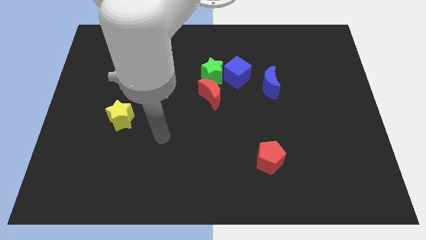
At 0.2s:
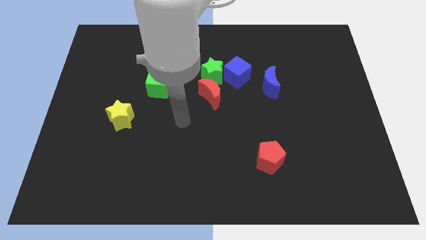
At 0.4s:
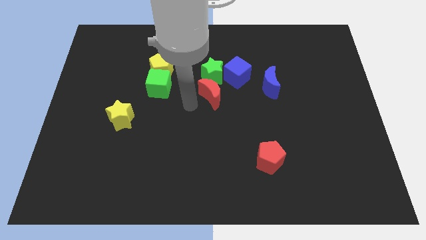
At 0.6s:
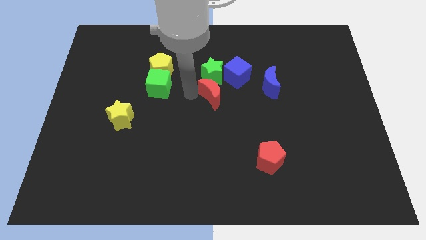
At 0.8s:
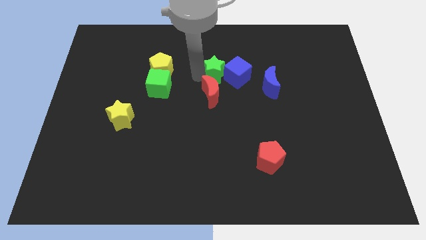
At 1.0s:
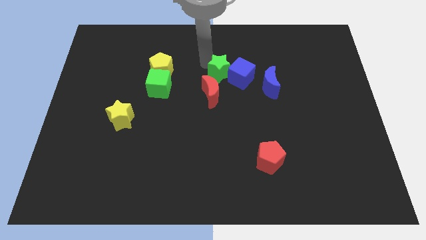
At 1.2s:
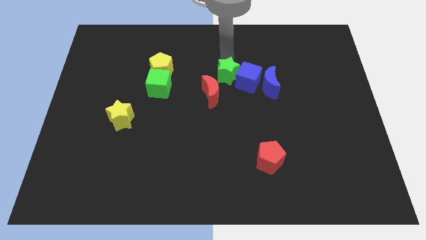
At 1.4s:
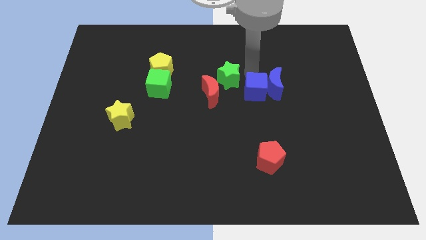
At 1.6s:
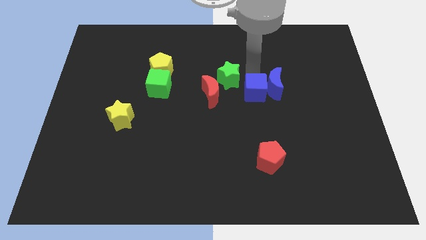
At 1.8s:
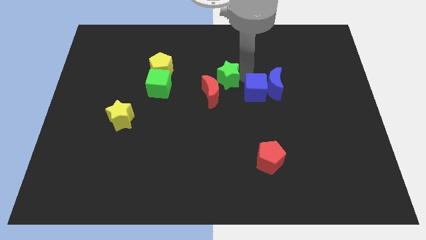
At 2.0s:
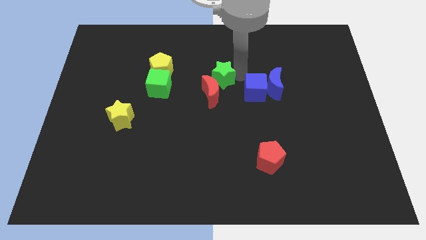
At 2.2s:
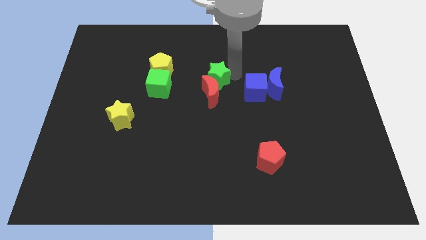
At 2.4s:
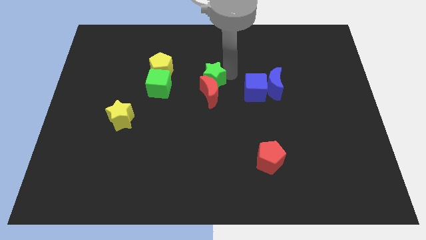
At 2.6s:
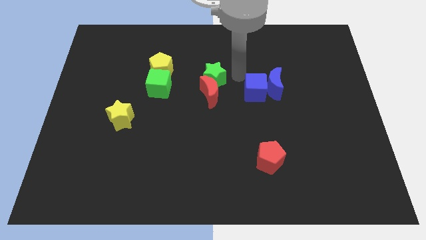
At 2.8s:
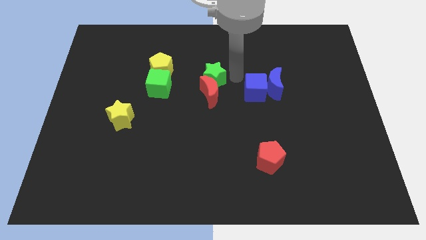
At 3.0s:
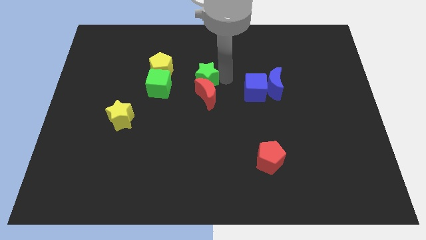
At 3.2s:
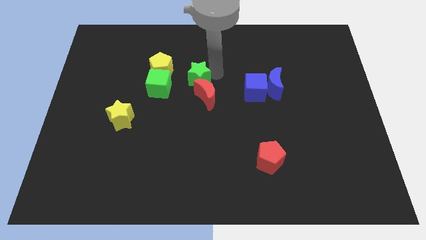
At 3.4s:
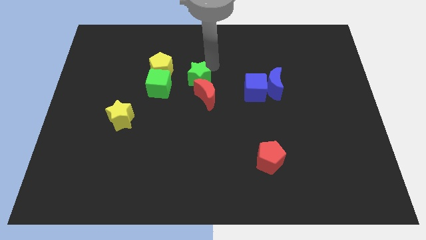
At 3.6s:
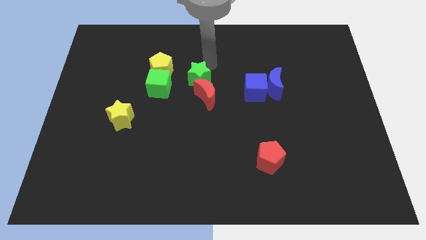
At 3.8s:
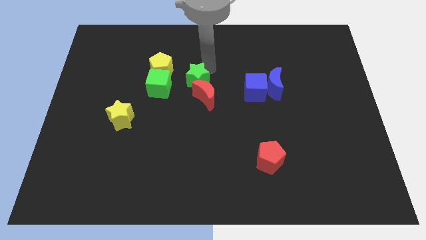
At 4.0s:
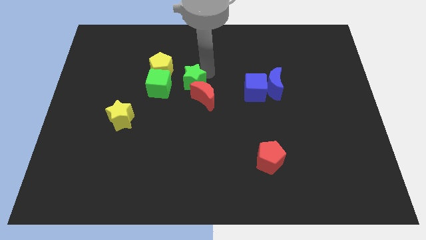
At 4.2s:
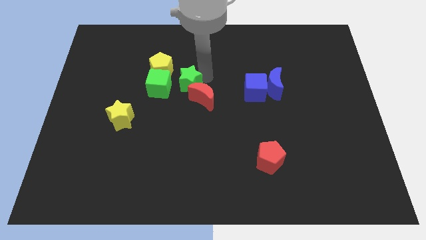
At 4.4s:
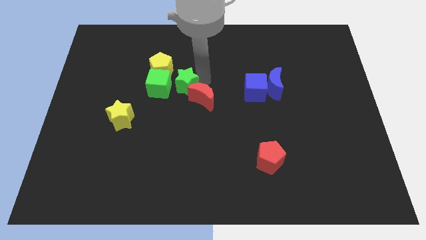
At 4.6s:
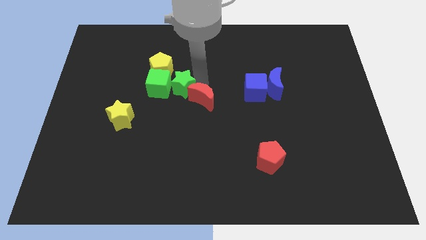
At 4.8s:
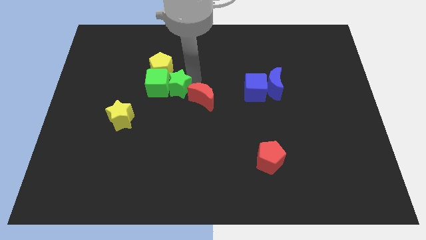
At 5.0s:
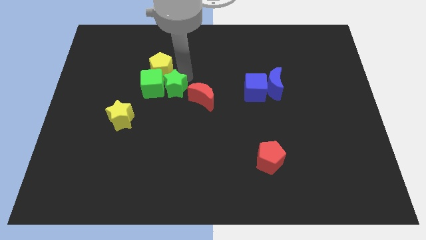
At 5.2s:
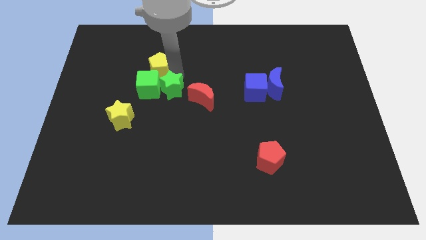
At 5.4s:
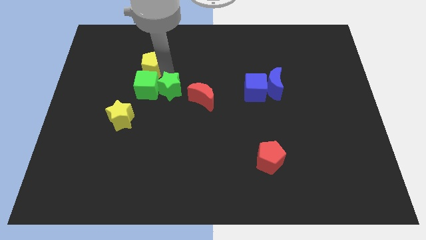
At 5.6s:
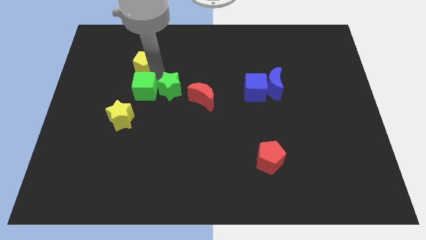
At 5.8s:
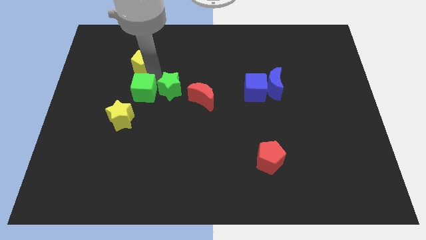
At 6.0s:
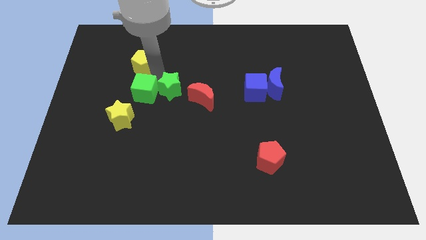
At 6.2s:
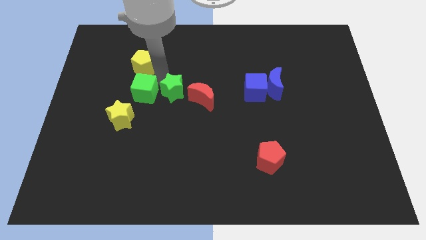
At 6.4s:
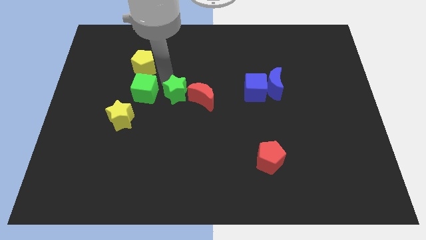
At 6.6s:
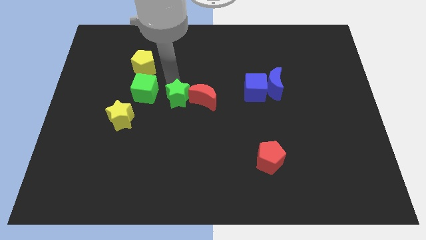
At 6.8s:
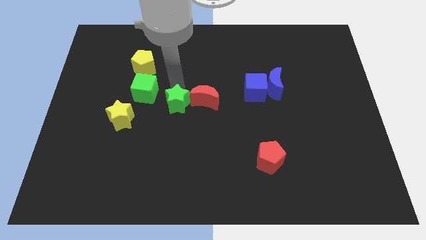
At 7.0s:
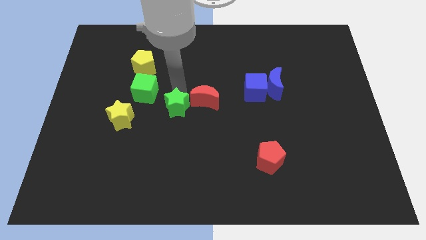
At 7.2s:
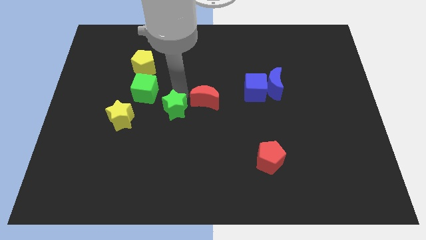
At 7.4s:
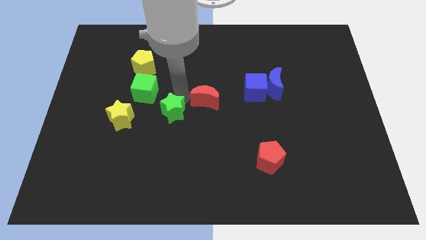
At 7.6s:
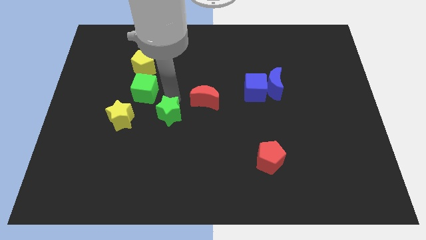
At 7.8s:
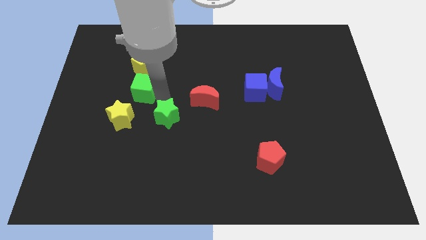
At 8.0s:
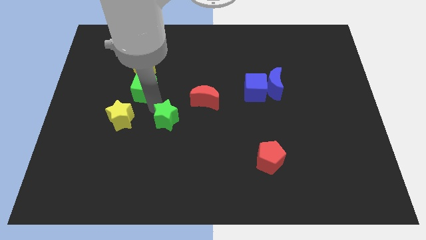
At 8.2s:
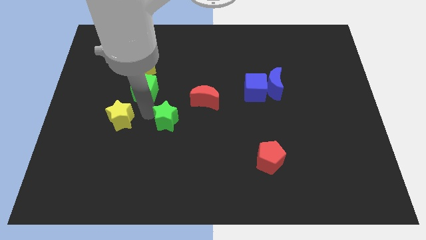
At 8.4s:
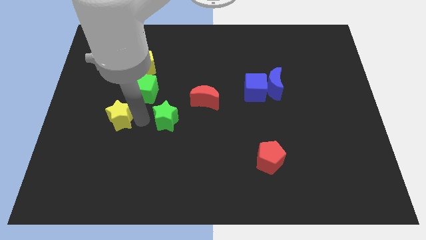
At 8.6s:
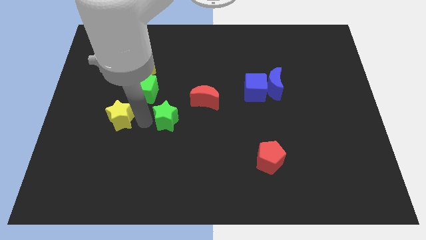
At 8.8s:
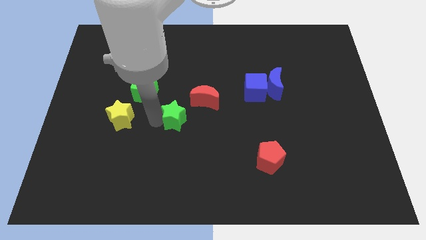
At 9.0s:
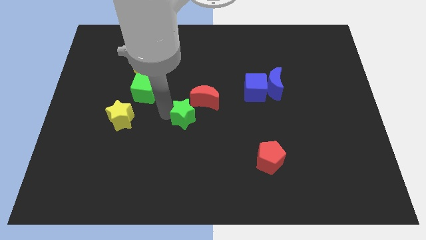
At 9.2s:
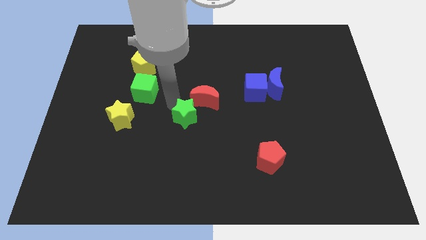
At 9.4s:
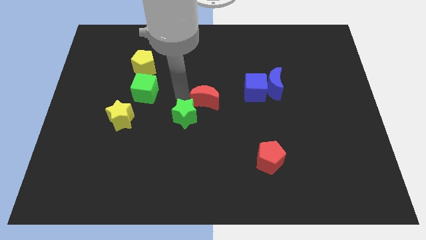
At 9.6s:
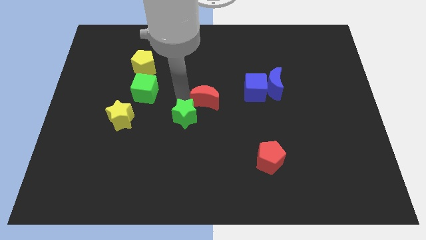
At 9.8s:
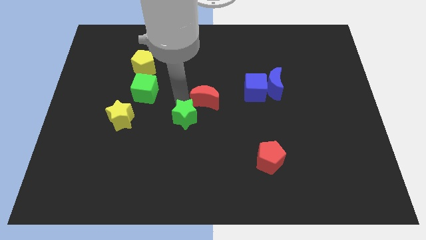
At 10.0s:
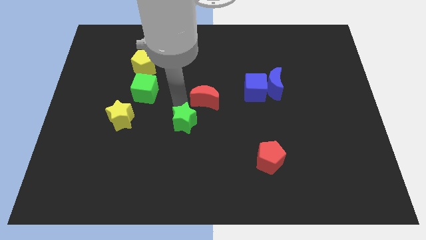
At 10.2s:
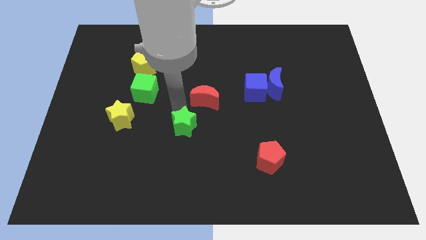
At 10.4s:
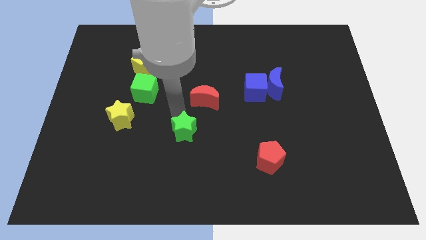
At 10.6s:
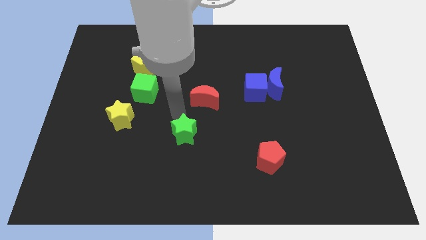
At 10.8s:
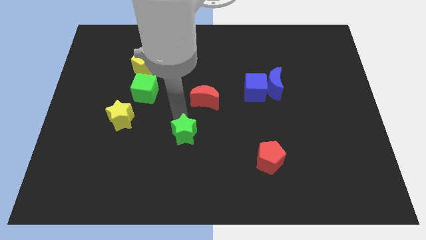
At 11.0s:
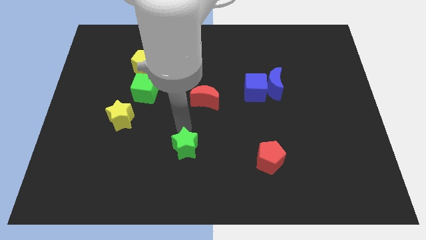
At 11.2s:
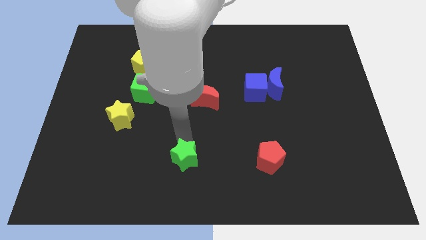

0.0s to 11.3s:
push the green star to the bottom

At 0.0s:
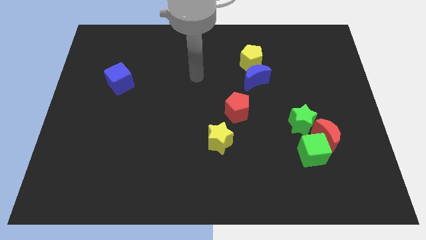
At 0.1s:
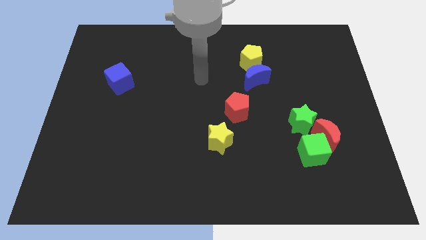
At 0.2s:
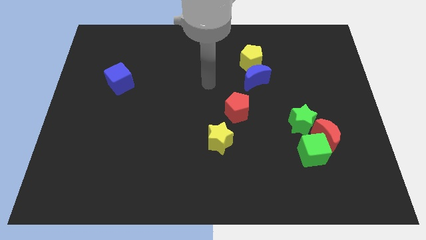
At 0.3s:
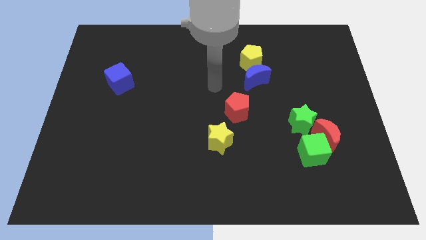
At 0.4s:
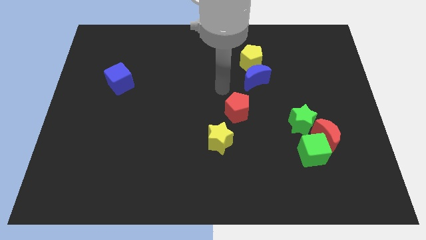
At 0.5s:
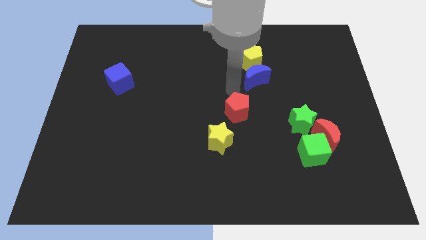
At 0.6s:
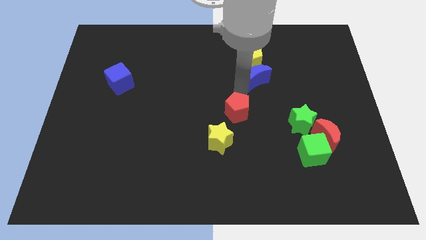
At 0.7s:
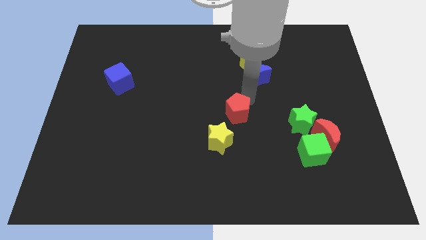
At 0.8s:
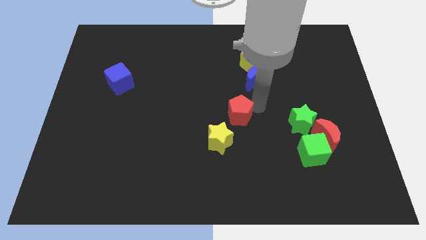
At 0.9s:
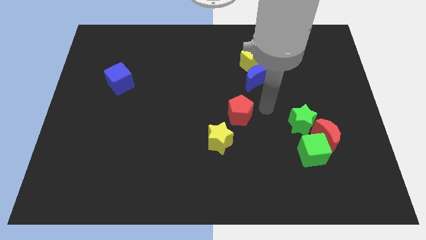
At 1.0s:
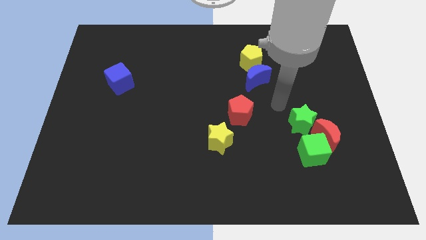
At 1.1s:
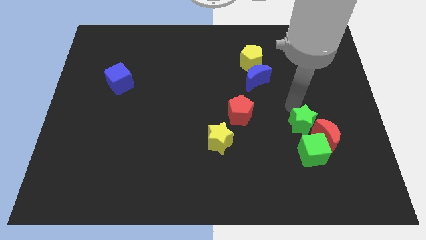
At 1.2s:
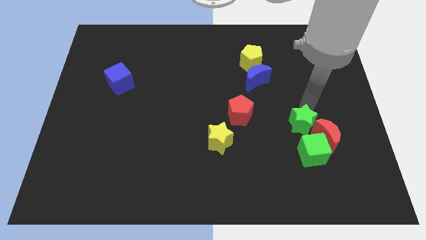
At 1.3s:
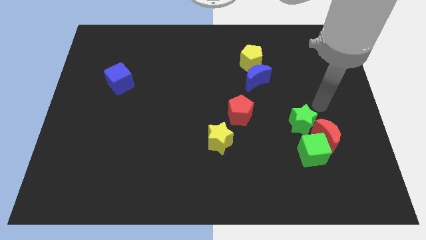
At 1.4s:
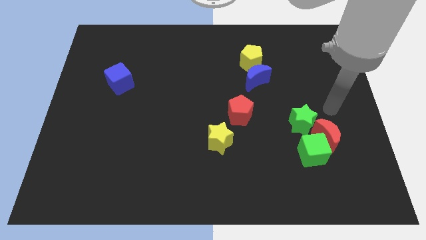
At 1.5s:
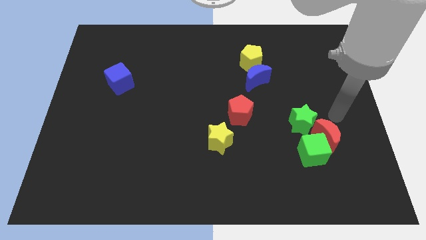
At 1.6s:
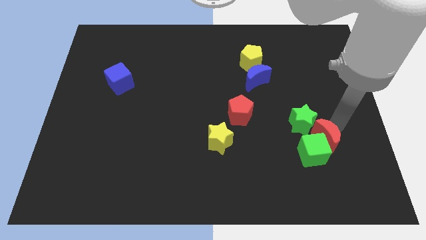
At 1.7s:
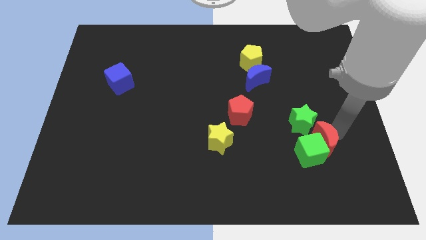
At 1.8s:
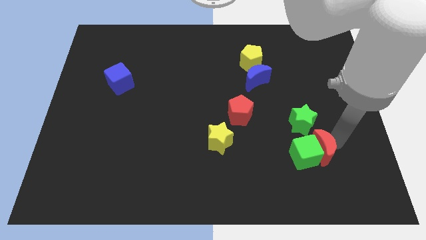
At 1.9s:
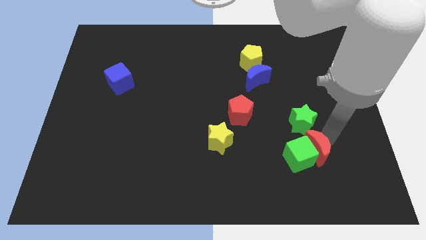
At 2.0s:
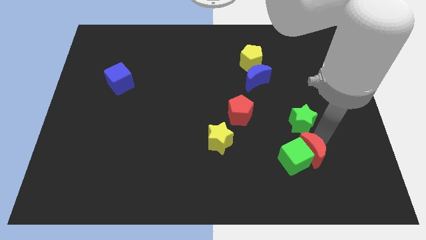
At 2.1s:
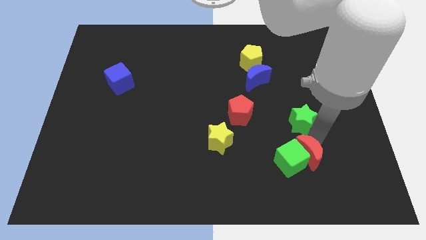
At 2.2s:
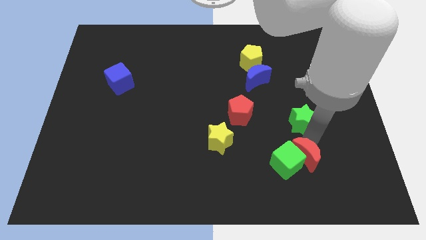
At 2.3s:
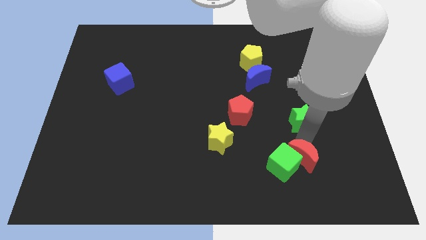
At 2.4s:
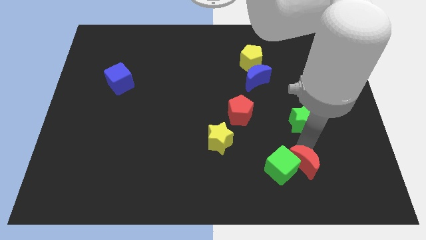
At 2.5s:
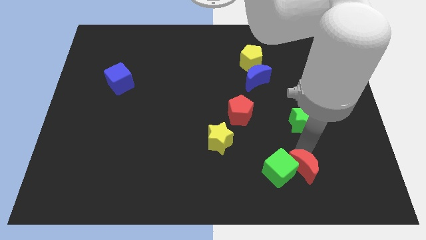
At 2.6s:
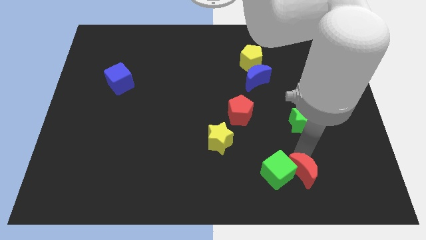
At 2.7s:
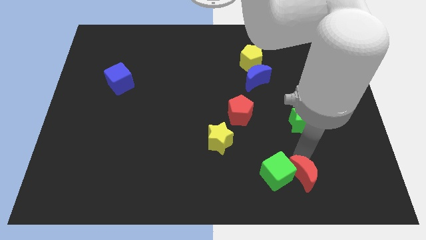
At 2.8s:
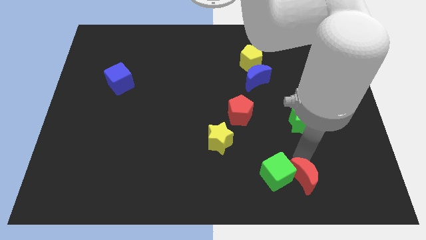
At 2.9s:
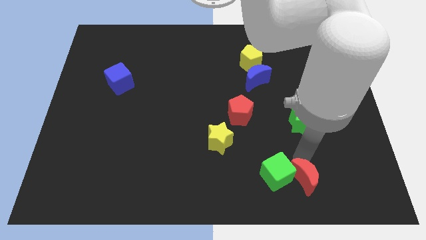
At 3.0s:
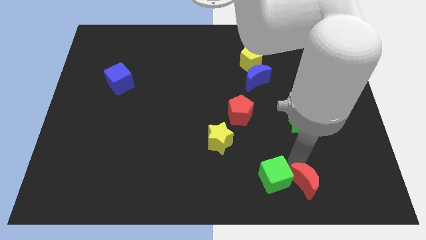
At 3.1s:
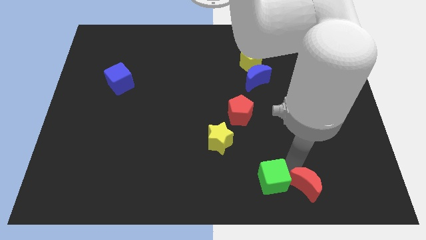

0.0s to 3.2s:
slide the green cube to the bottom
